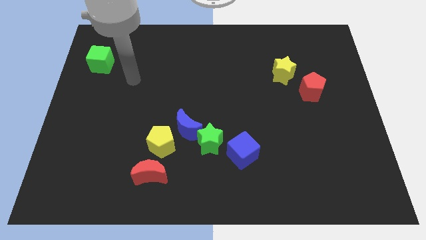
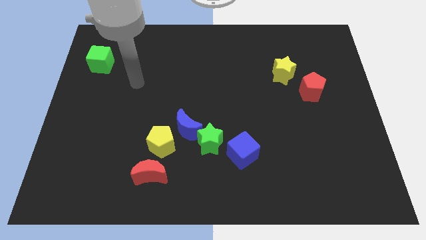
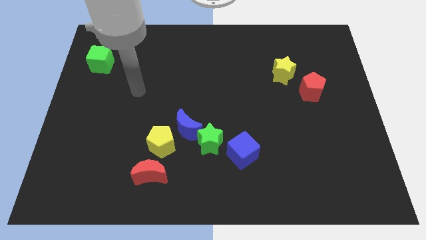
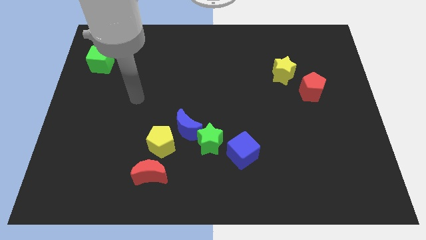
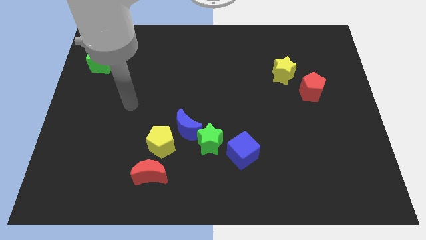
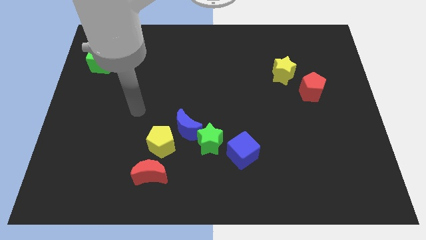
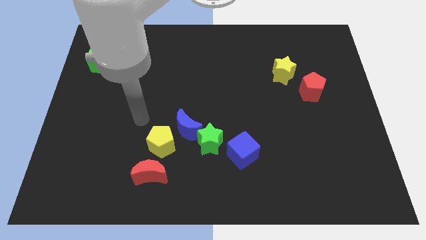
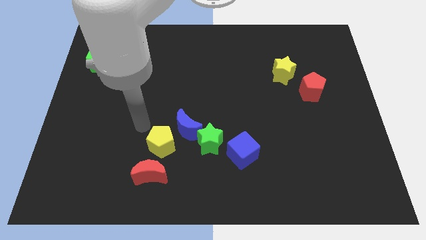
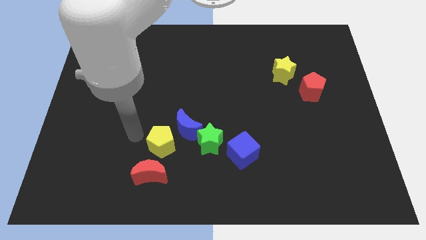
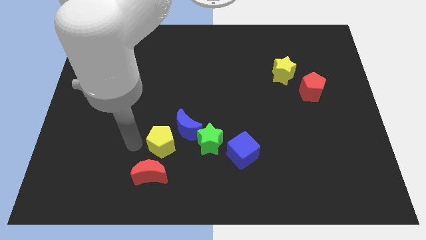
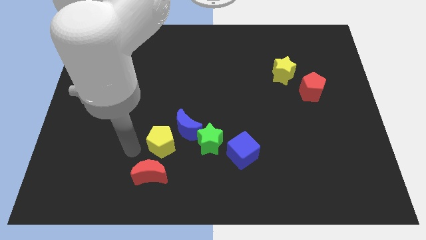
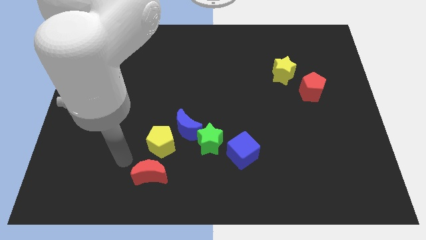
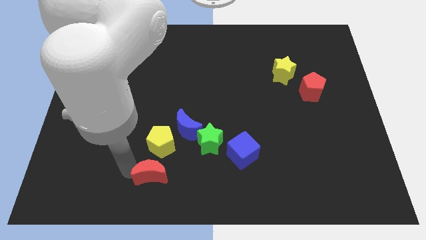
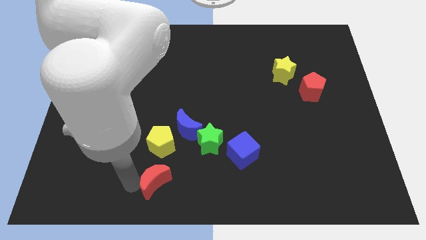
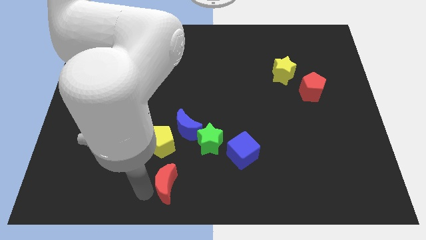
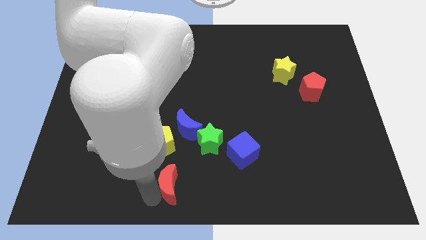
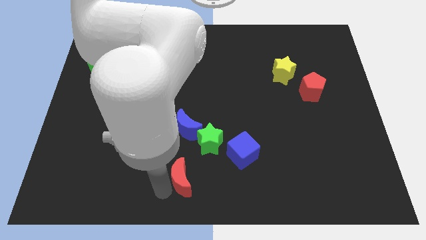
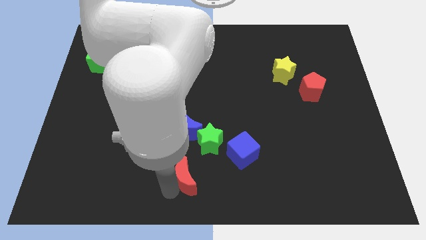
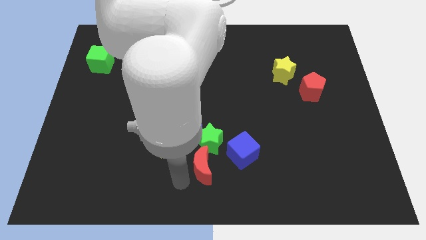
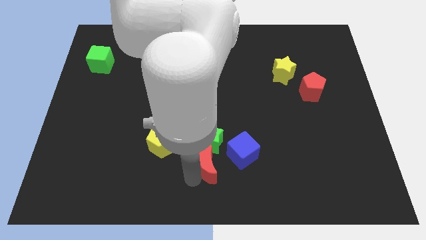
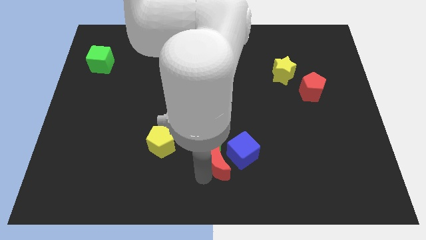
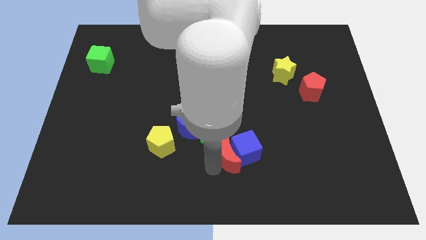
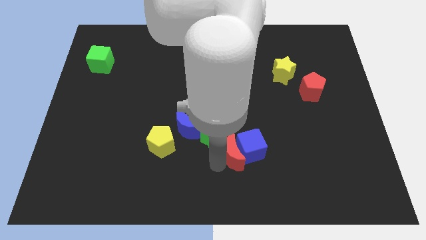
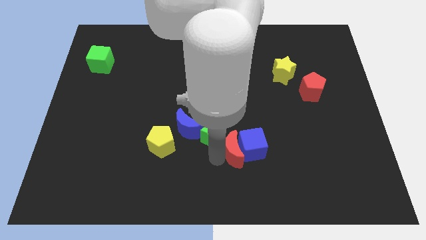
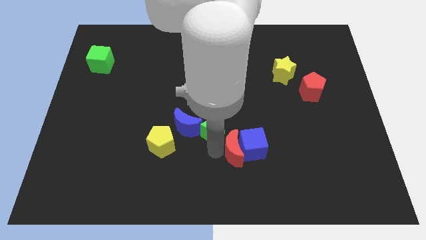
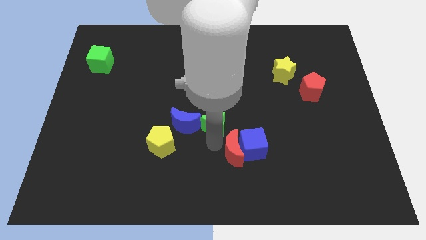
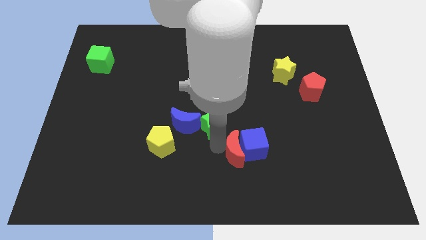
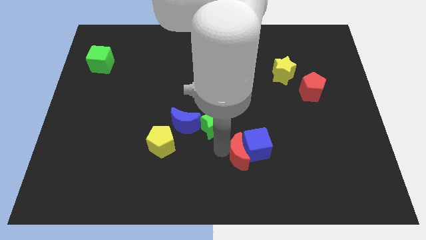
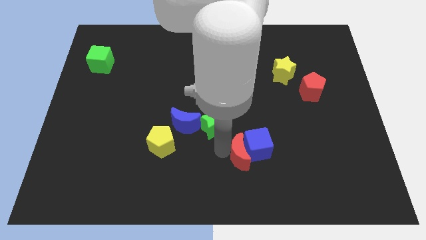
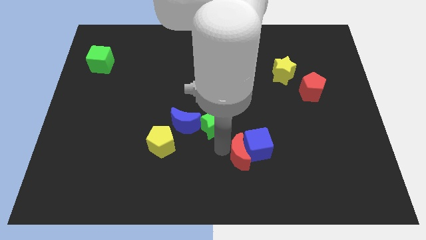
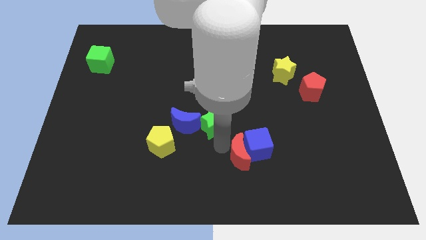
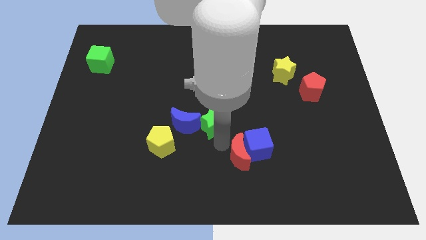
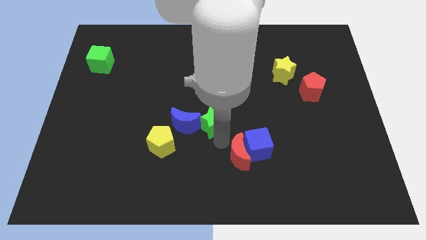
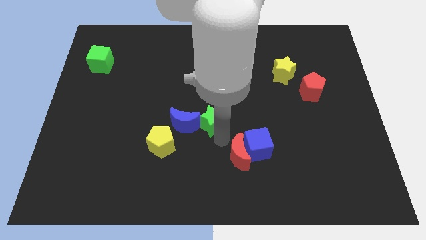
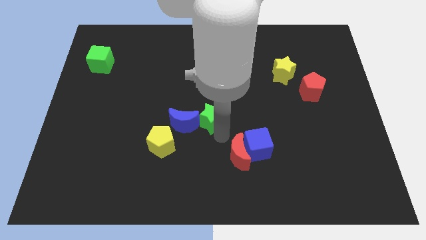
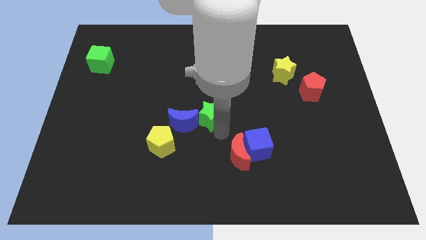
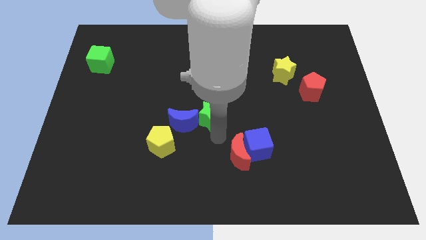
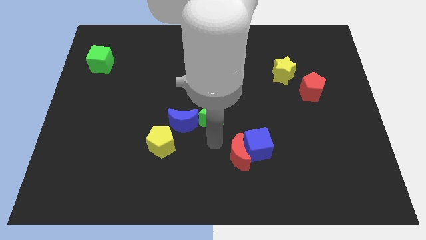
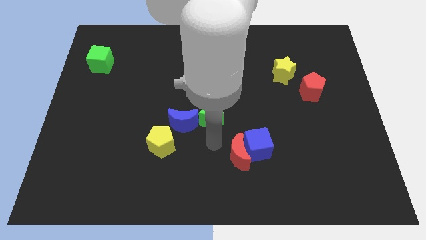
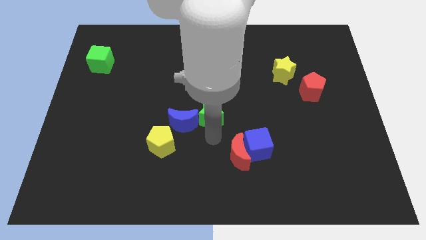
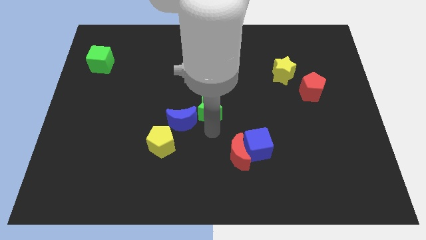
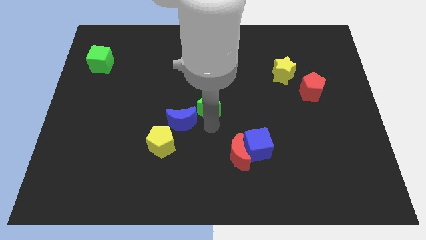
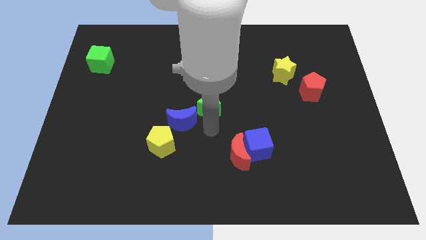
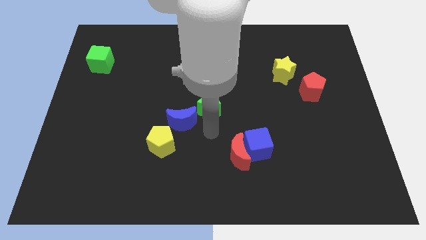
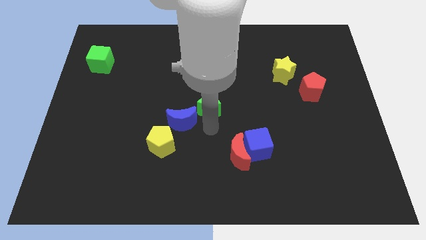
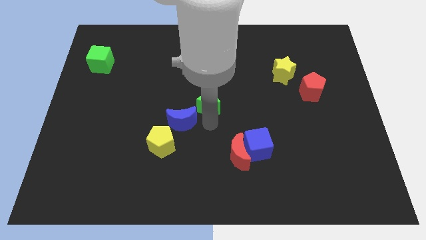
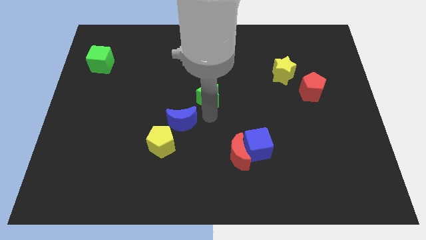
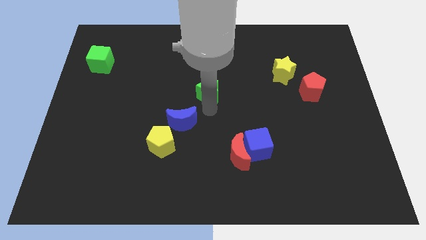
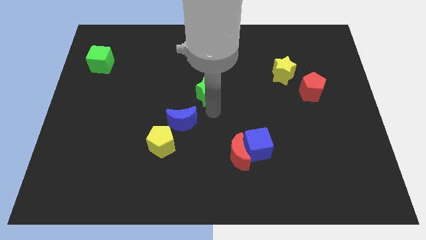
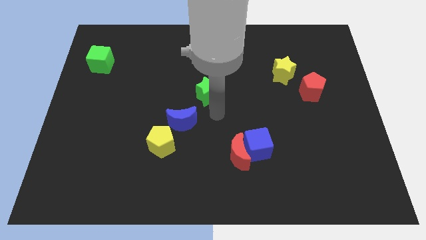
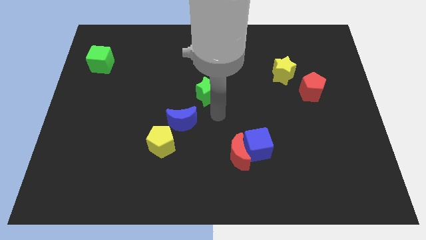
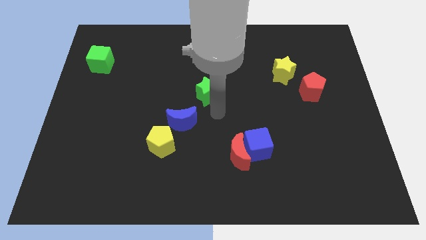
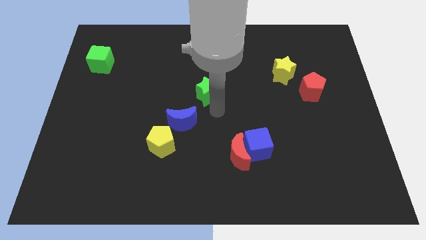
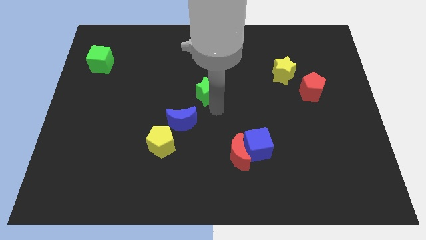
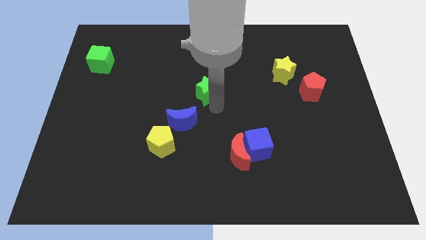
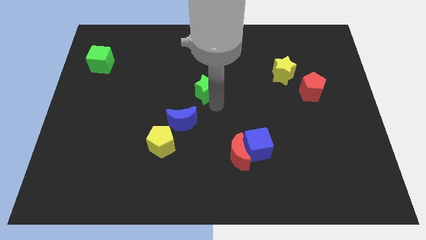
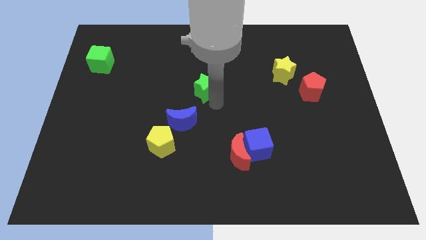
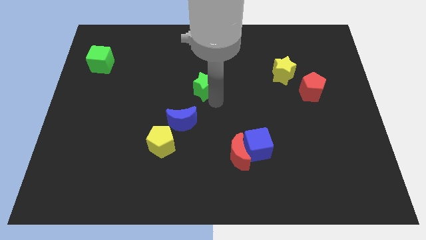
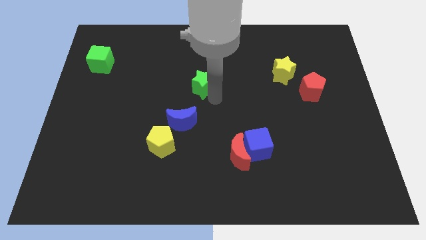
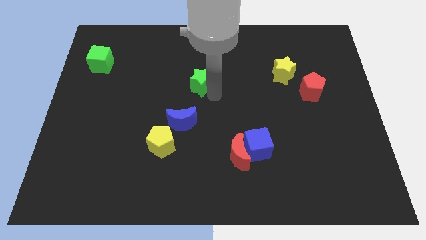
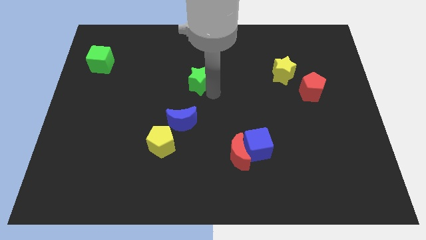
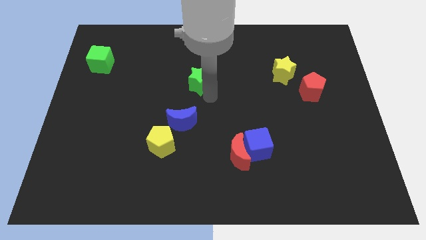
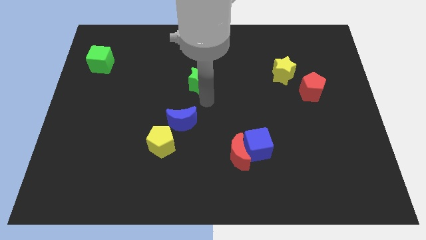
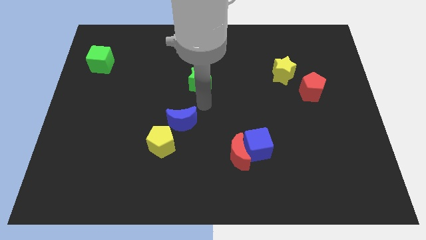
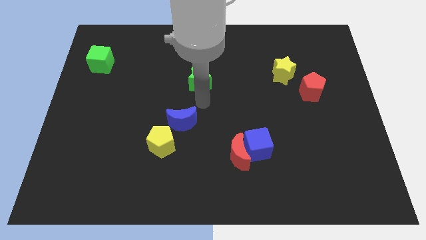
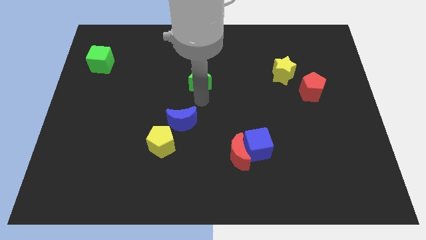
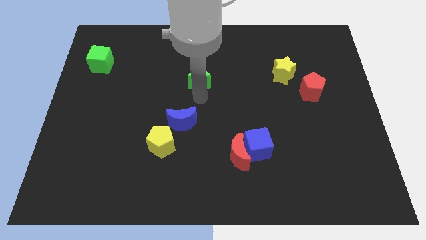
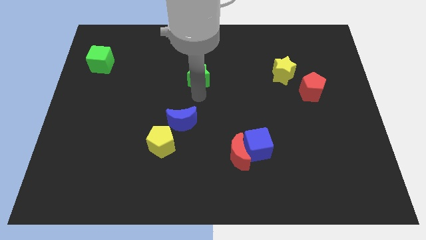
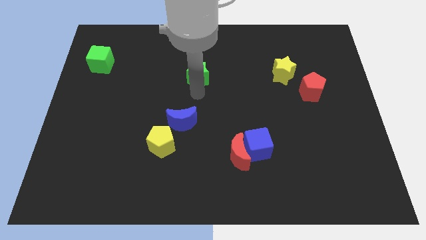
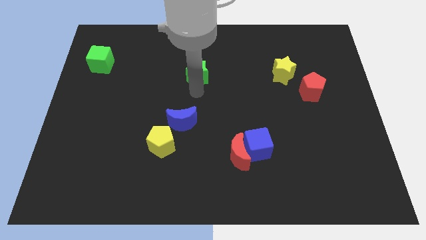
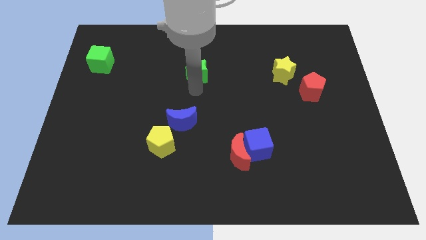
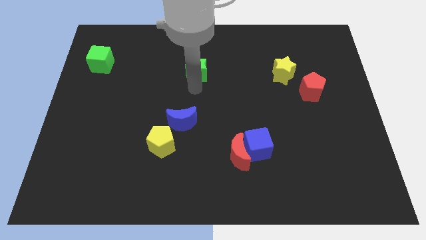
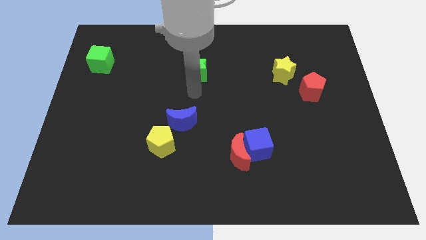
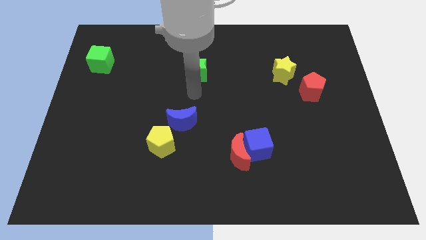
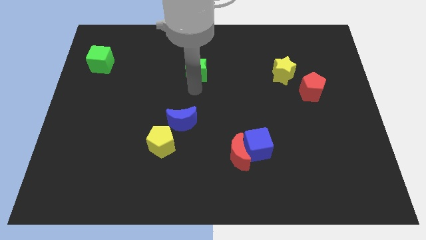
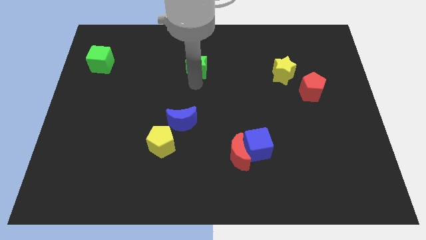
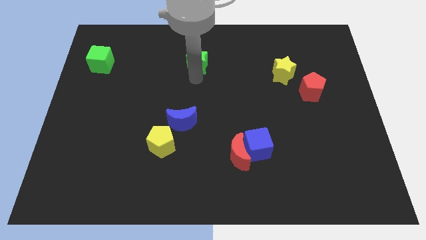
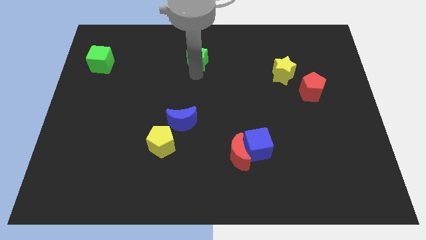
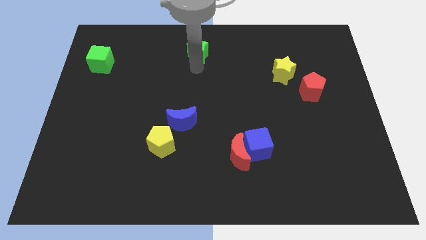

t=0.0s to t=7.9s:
slide the green star to the top
